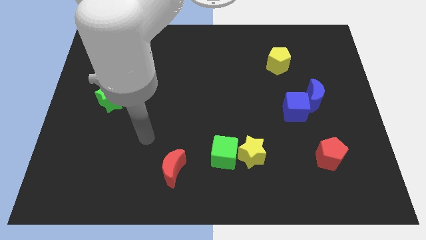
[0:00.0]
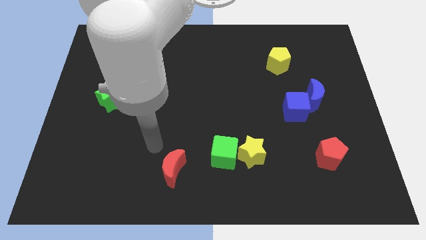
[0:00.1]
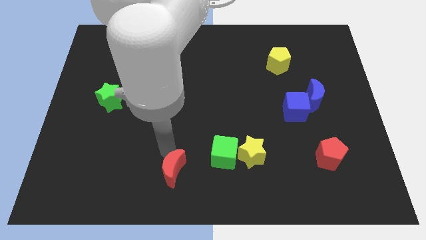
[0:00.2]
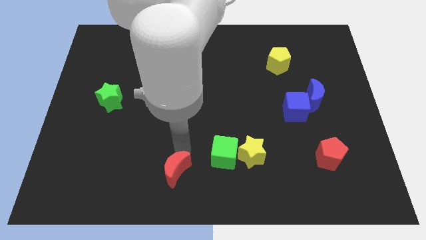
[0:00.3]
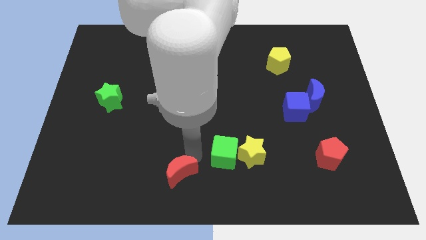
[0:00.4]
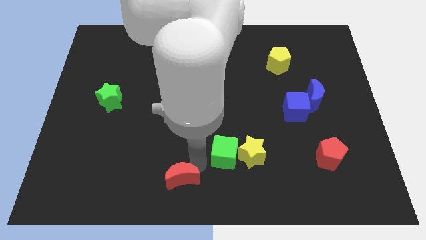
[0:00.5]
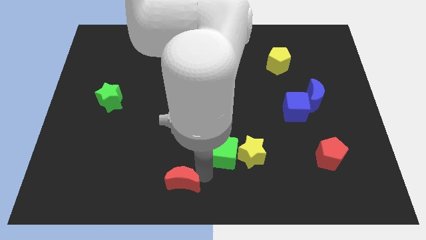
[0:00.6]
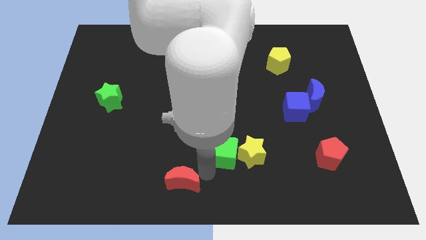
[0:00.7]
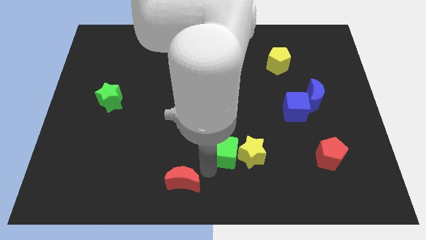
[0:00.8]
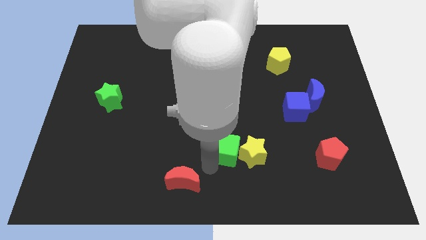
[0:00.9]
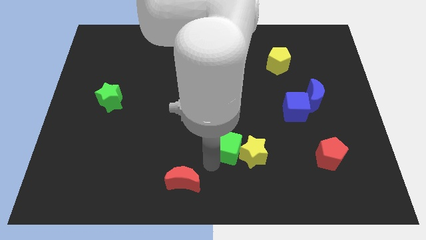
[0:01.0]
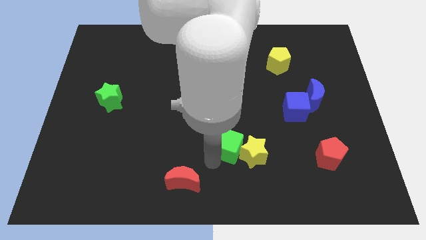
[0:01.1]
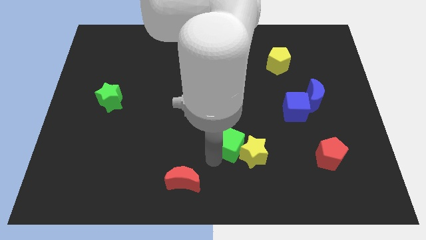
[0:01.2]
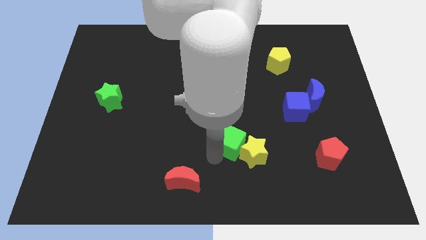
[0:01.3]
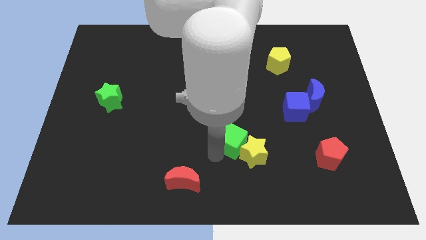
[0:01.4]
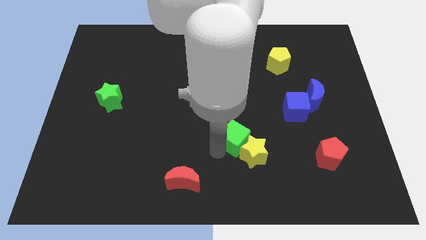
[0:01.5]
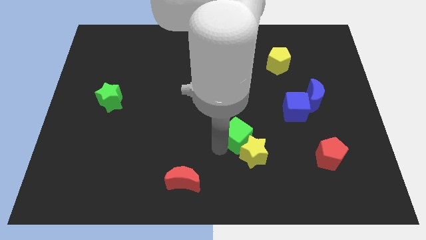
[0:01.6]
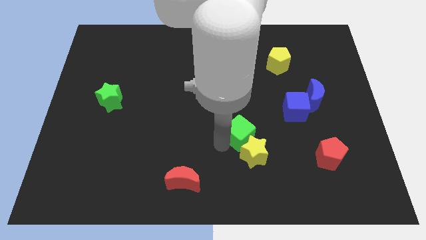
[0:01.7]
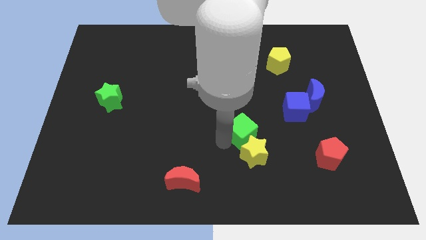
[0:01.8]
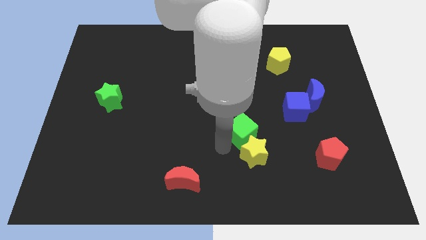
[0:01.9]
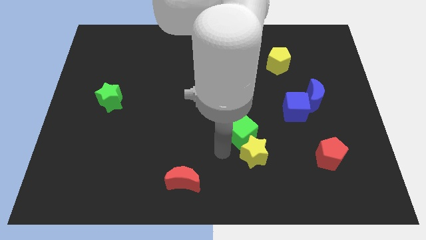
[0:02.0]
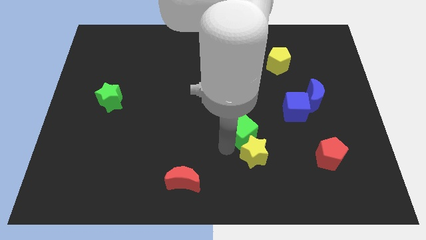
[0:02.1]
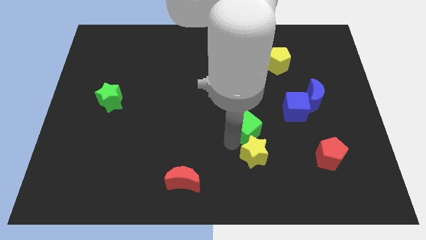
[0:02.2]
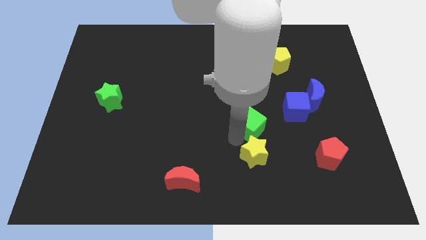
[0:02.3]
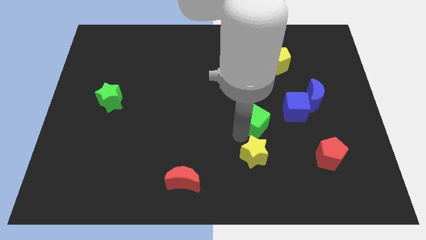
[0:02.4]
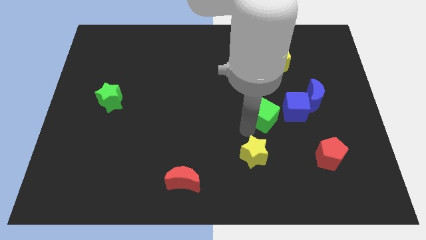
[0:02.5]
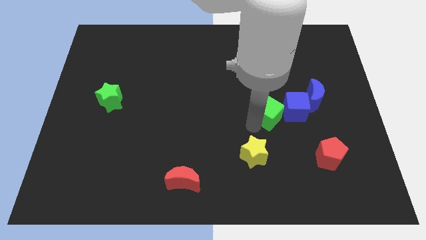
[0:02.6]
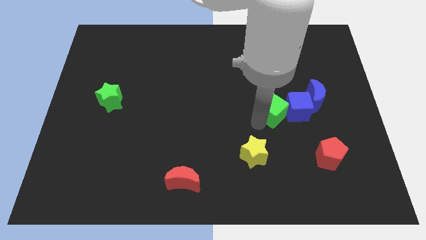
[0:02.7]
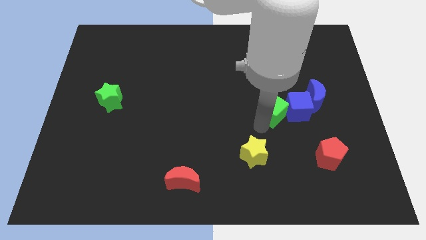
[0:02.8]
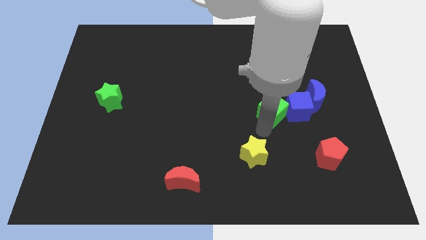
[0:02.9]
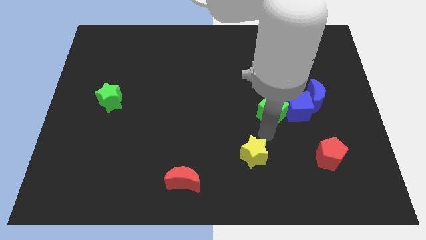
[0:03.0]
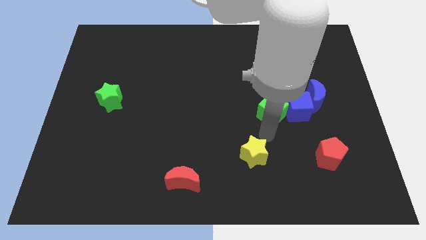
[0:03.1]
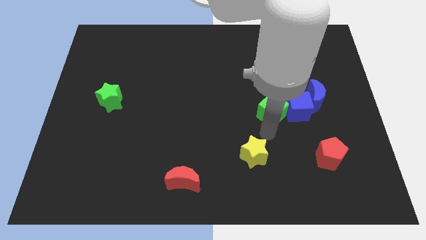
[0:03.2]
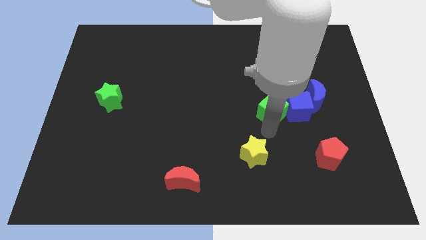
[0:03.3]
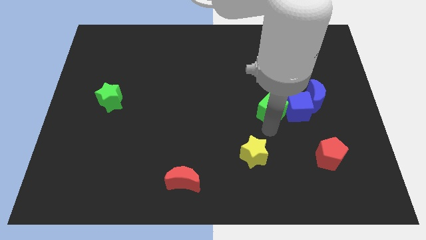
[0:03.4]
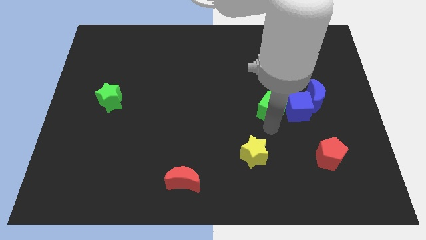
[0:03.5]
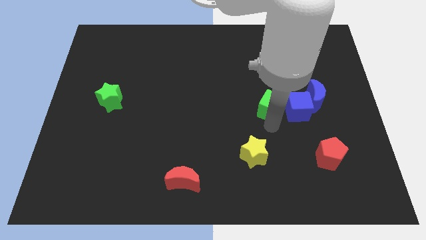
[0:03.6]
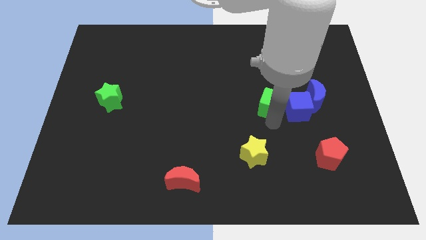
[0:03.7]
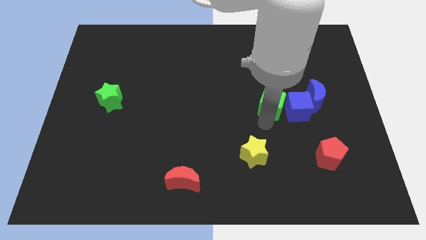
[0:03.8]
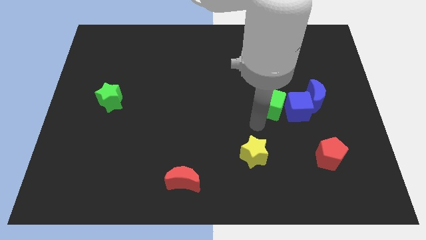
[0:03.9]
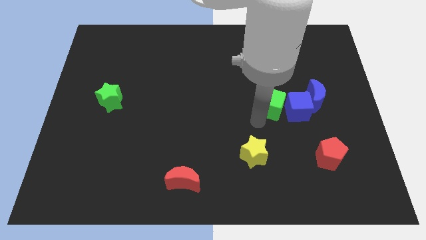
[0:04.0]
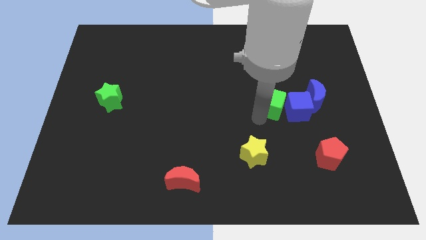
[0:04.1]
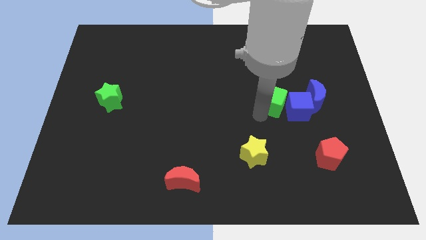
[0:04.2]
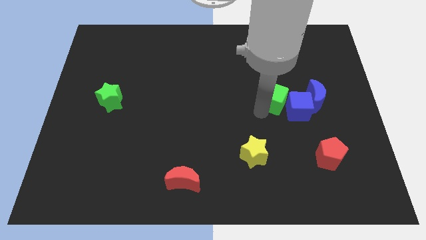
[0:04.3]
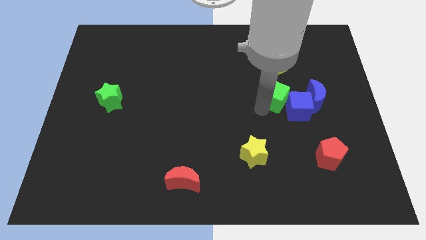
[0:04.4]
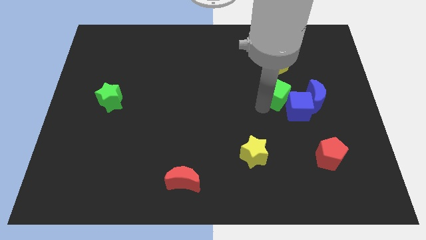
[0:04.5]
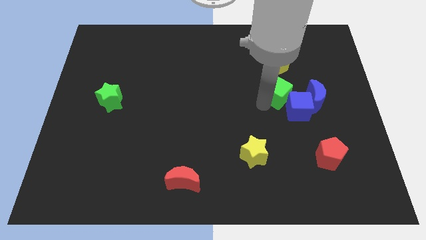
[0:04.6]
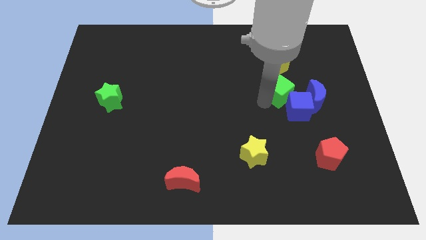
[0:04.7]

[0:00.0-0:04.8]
move the green cube to the top left side of the blue moon

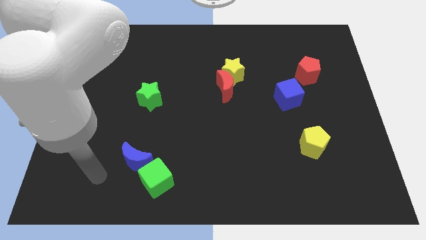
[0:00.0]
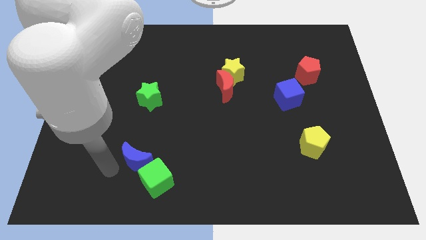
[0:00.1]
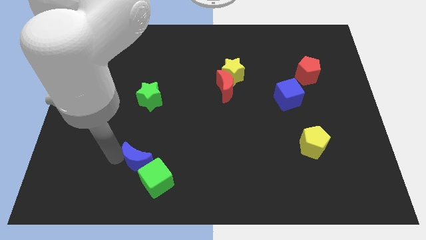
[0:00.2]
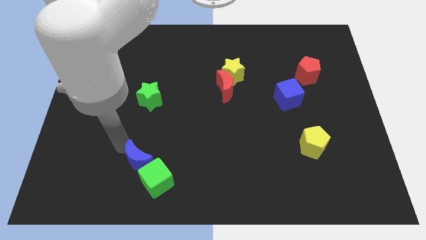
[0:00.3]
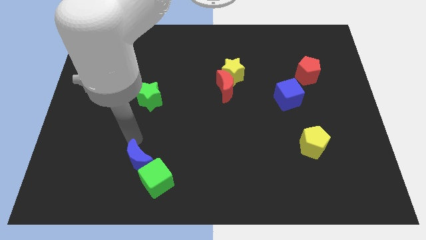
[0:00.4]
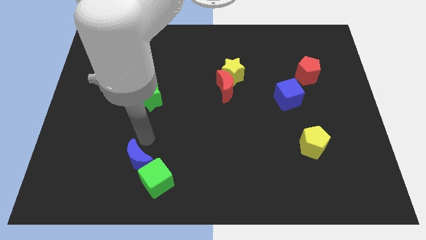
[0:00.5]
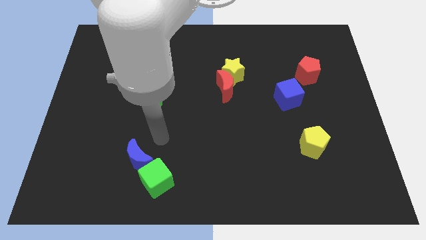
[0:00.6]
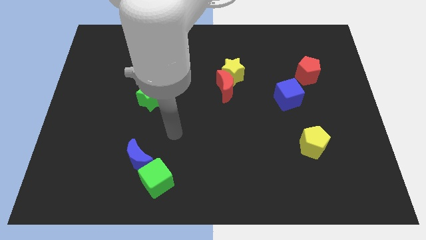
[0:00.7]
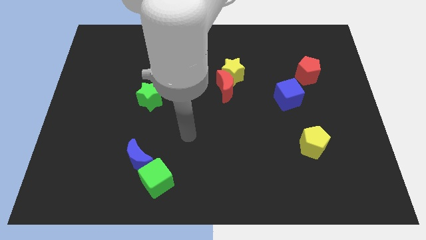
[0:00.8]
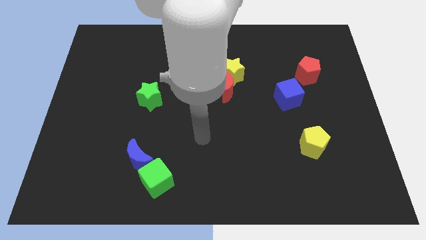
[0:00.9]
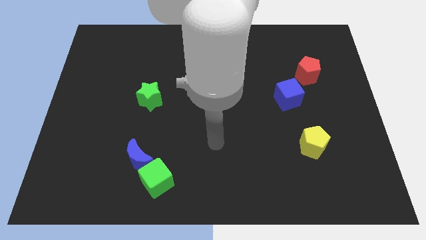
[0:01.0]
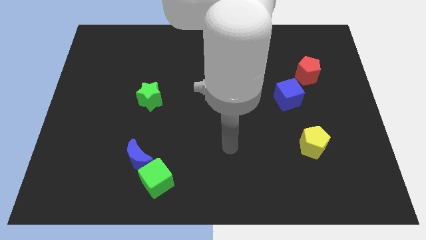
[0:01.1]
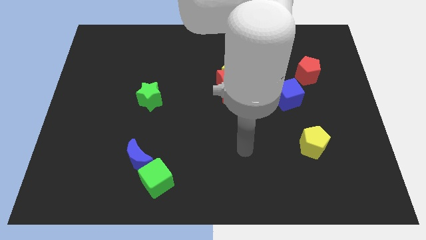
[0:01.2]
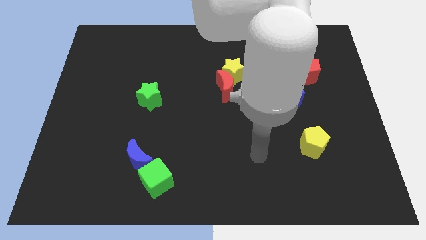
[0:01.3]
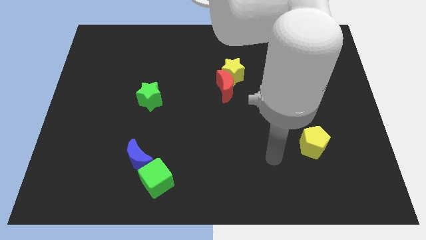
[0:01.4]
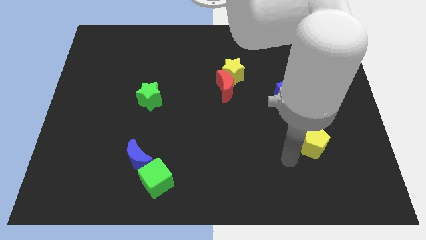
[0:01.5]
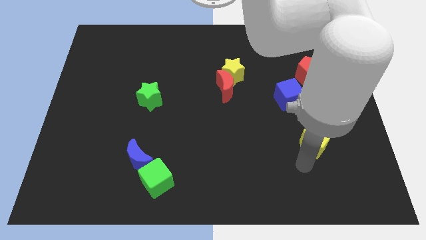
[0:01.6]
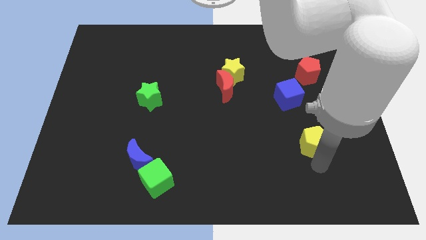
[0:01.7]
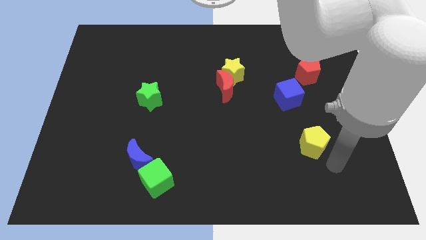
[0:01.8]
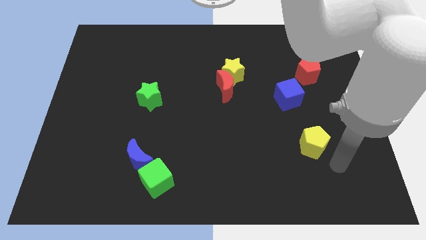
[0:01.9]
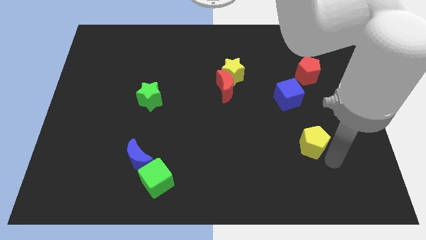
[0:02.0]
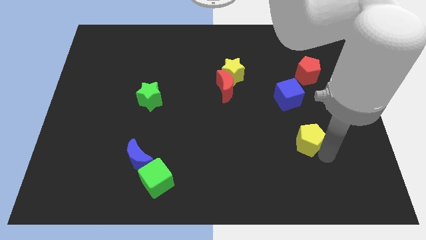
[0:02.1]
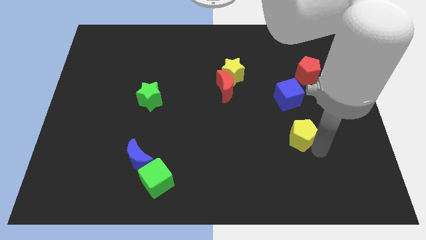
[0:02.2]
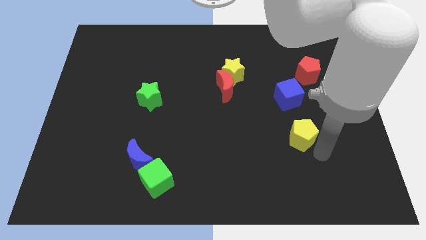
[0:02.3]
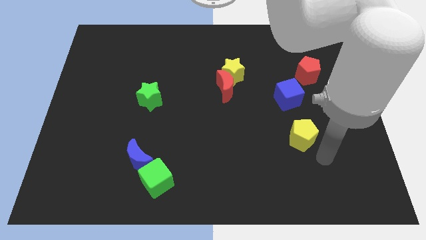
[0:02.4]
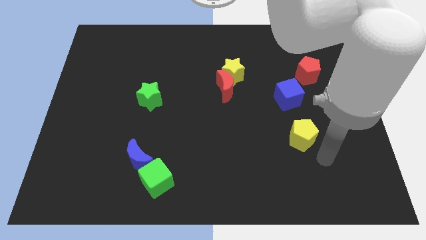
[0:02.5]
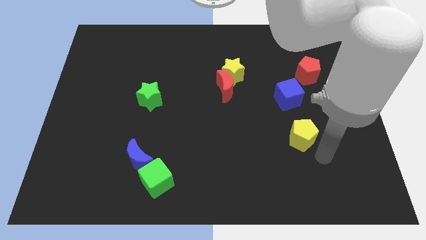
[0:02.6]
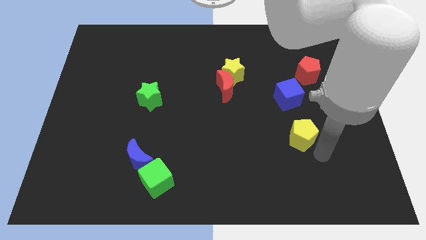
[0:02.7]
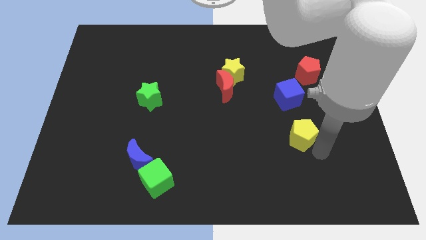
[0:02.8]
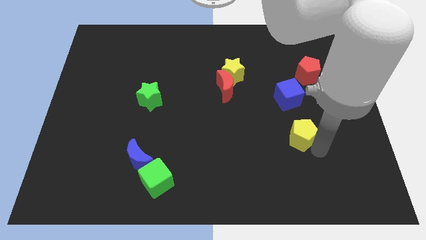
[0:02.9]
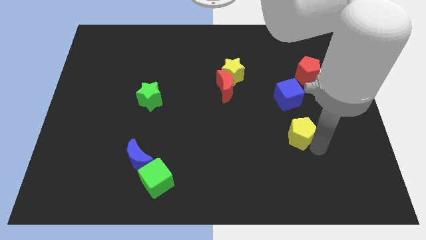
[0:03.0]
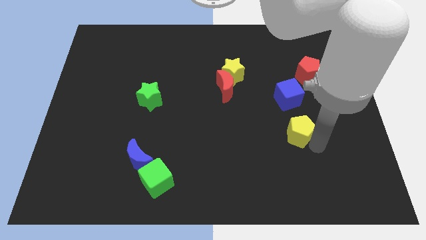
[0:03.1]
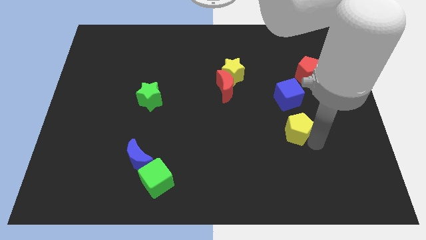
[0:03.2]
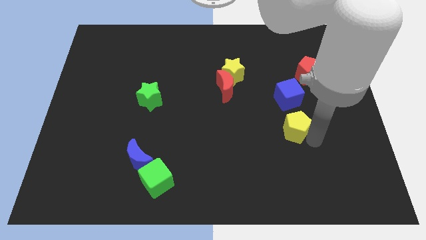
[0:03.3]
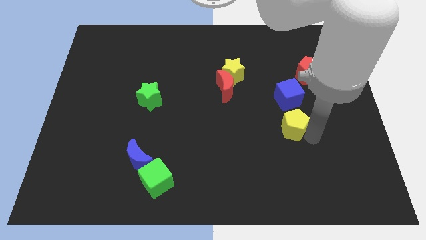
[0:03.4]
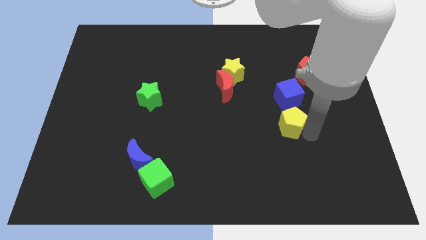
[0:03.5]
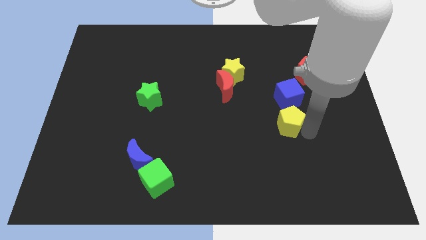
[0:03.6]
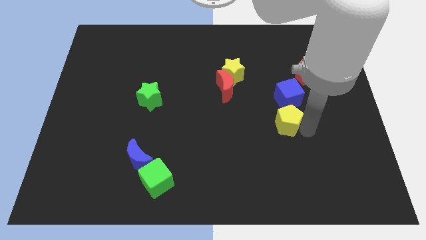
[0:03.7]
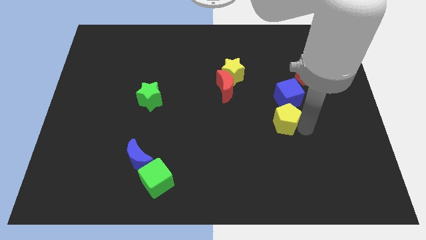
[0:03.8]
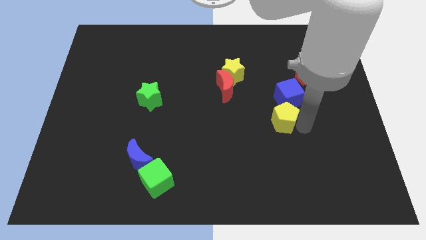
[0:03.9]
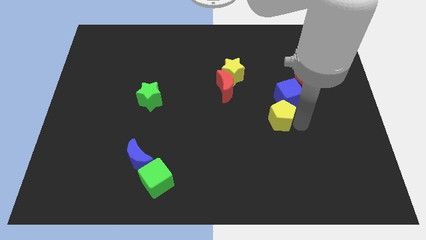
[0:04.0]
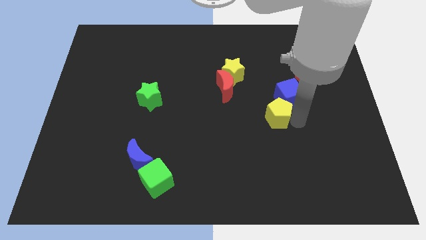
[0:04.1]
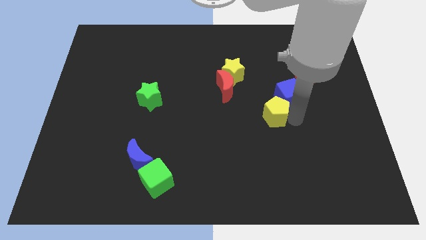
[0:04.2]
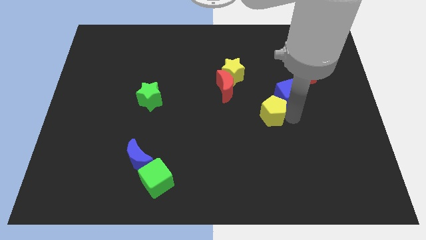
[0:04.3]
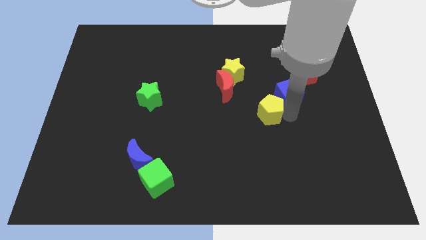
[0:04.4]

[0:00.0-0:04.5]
move the yellow pentagon to the bottom right side of the red moon
